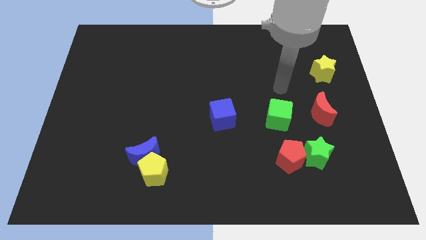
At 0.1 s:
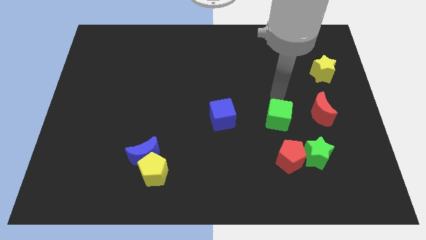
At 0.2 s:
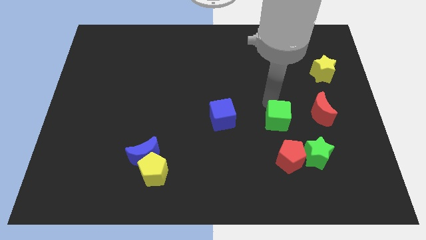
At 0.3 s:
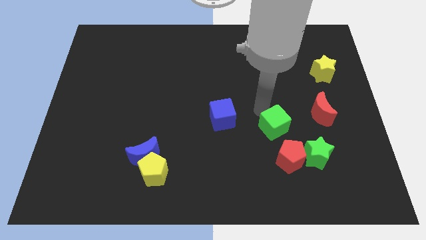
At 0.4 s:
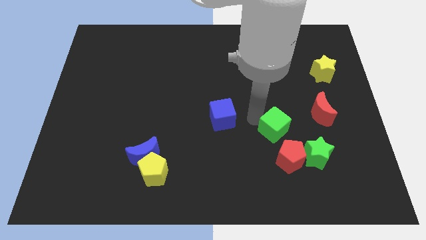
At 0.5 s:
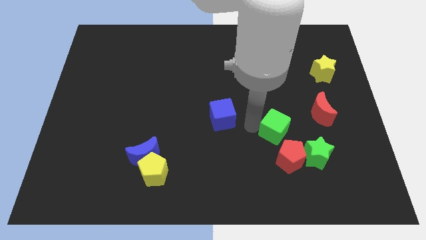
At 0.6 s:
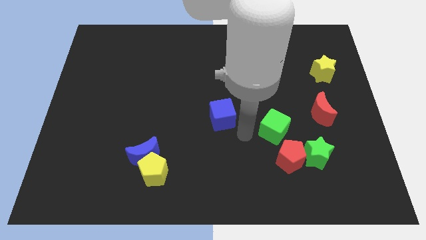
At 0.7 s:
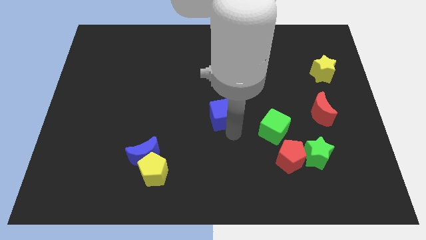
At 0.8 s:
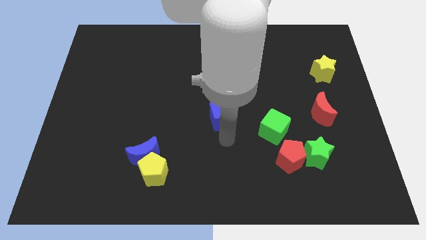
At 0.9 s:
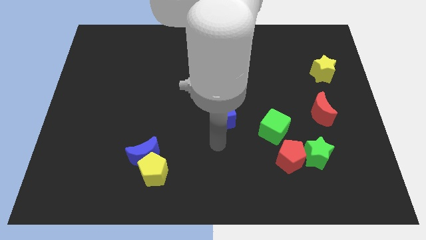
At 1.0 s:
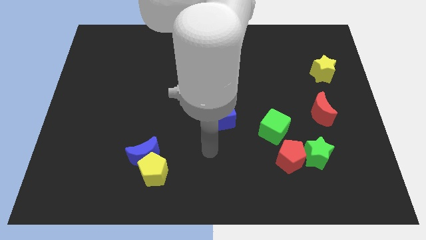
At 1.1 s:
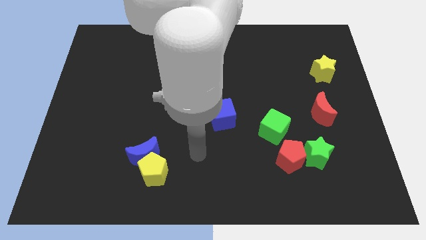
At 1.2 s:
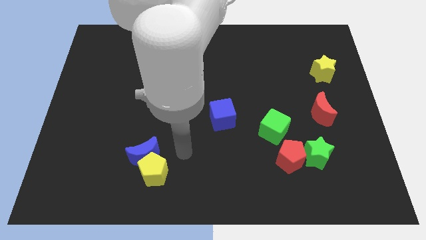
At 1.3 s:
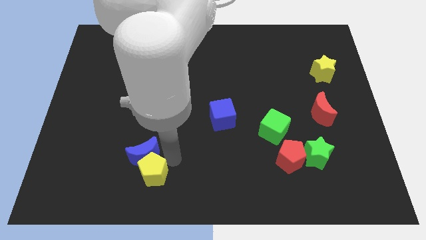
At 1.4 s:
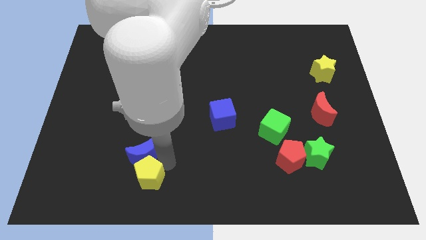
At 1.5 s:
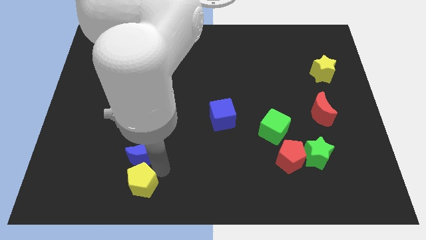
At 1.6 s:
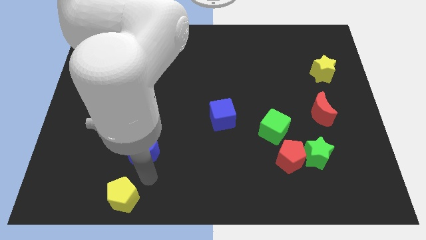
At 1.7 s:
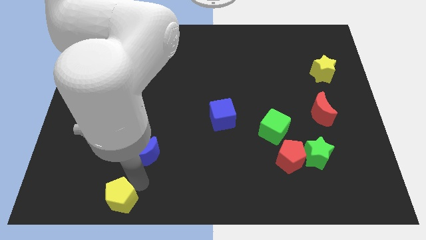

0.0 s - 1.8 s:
separate the blue moon from the yellow pentagon

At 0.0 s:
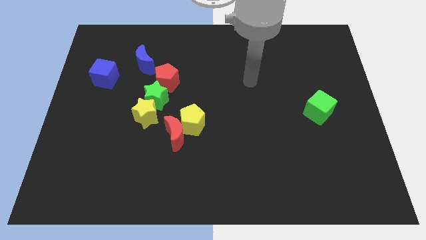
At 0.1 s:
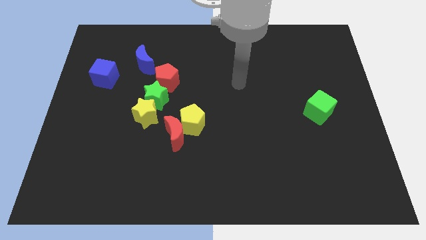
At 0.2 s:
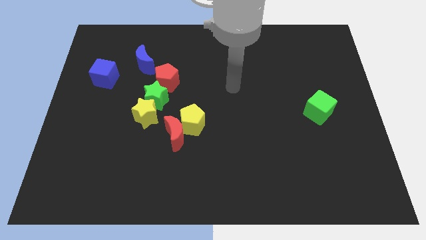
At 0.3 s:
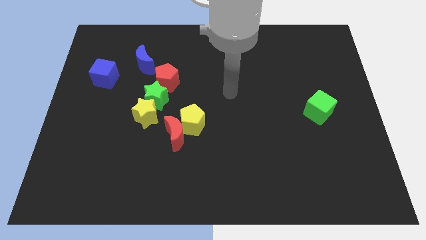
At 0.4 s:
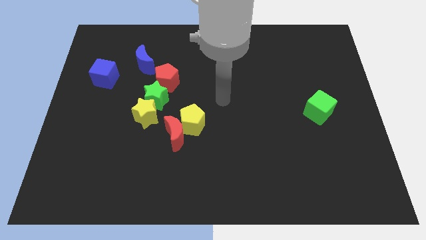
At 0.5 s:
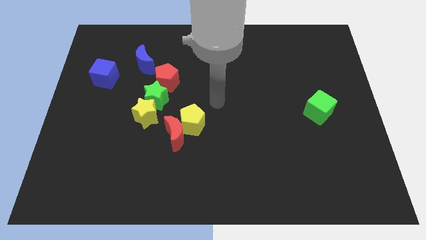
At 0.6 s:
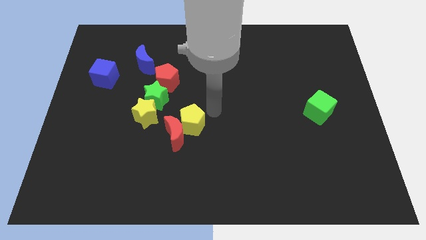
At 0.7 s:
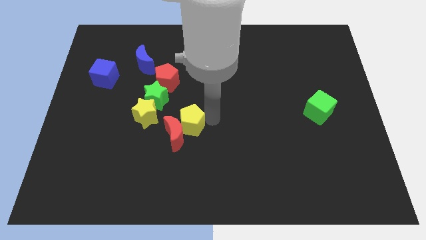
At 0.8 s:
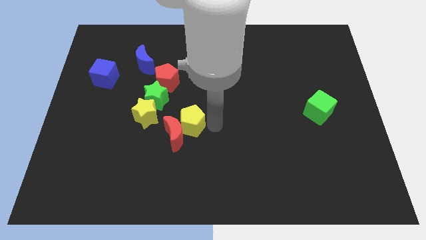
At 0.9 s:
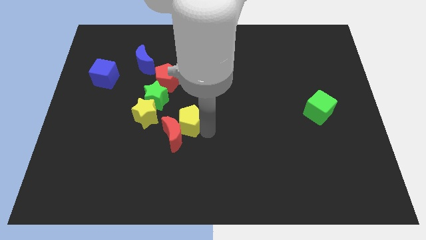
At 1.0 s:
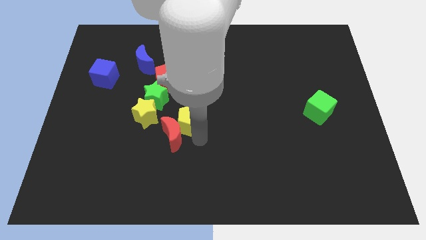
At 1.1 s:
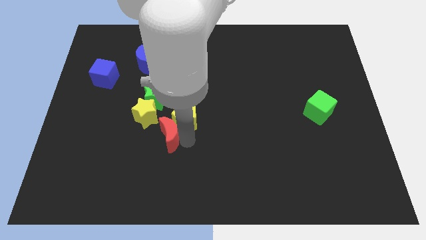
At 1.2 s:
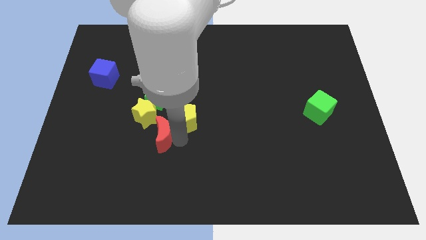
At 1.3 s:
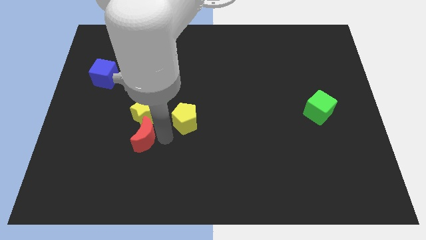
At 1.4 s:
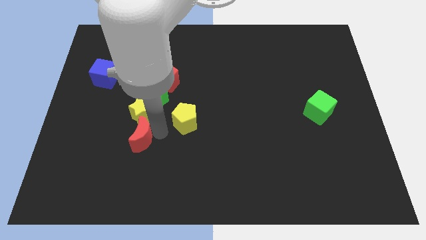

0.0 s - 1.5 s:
separate the yellow pentagon from the red moon

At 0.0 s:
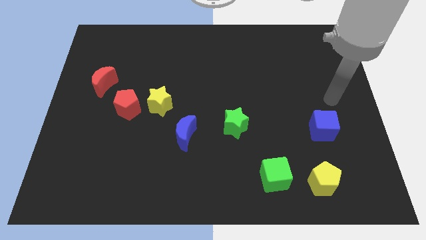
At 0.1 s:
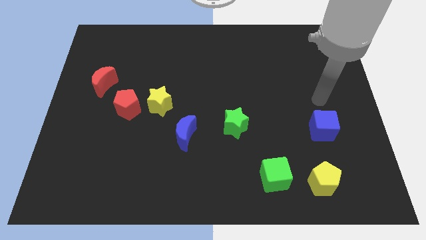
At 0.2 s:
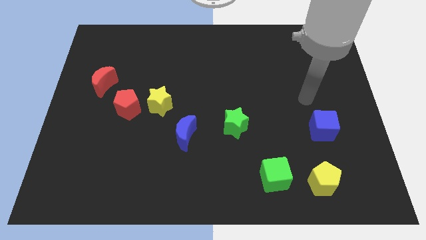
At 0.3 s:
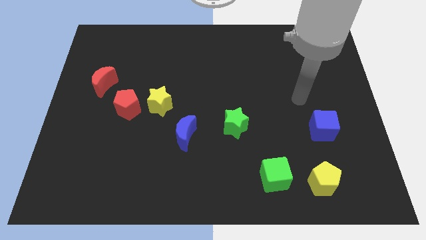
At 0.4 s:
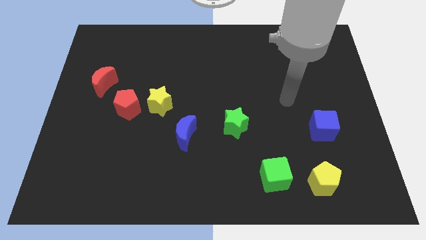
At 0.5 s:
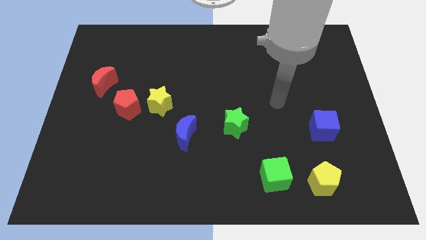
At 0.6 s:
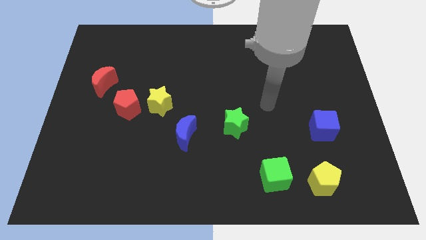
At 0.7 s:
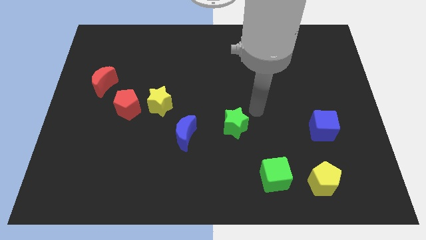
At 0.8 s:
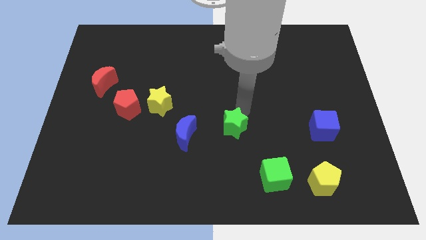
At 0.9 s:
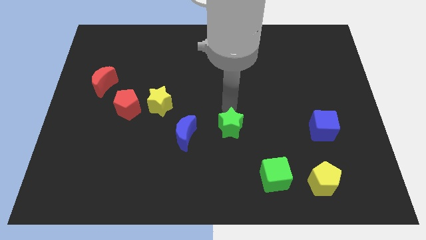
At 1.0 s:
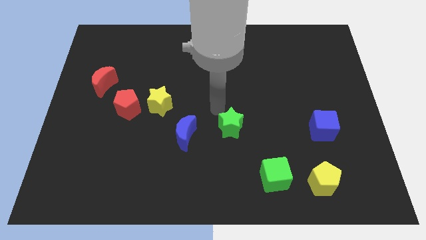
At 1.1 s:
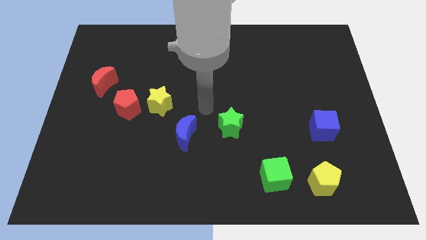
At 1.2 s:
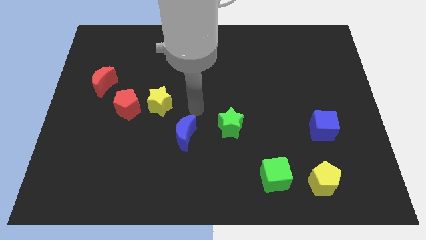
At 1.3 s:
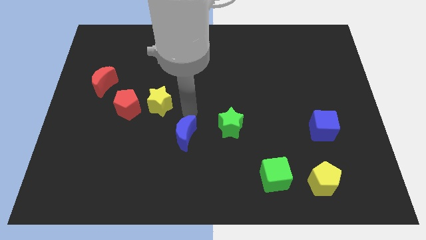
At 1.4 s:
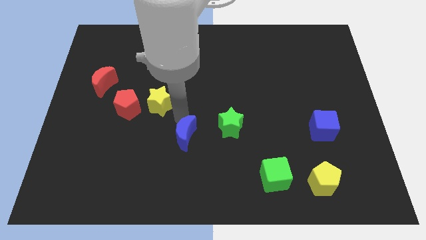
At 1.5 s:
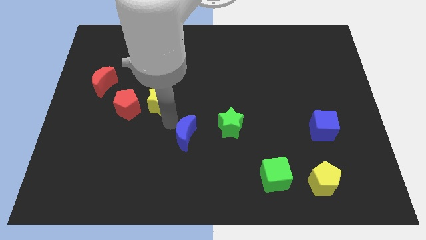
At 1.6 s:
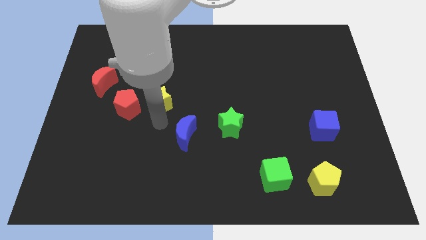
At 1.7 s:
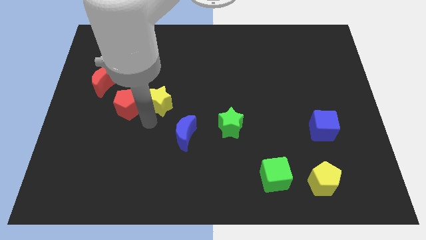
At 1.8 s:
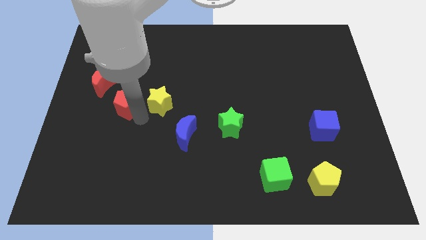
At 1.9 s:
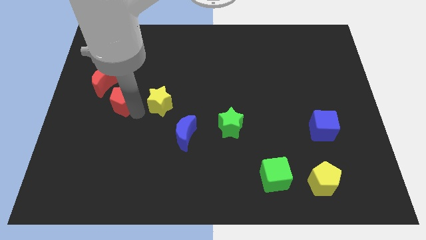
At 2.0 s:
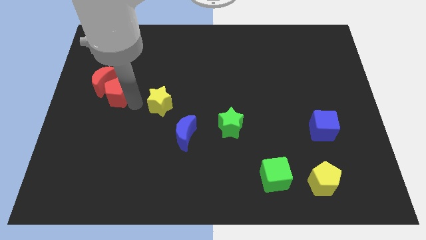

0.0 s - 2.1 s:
separate the yellow star from the red pentagon

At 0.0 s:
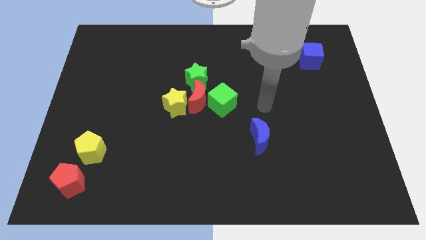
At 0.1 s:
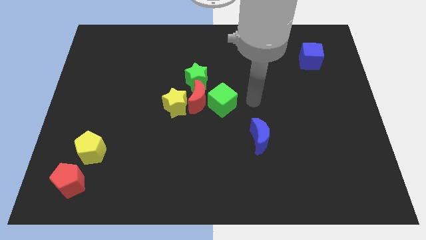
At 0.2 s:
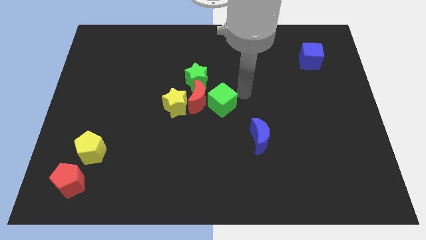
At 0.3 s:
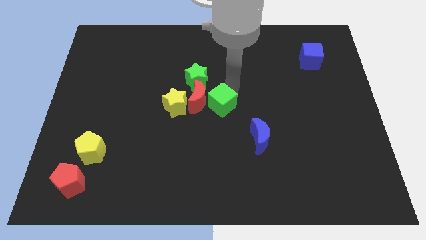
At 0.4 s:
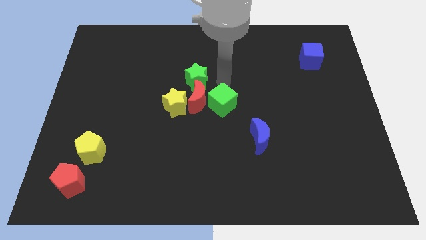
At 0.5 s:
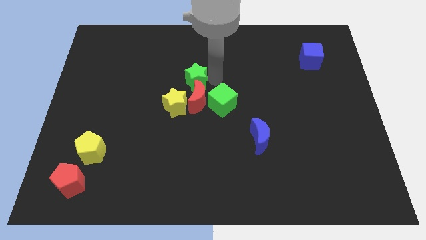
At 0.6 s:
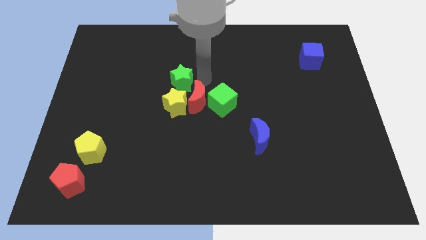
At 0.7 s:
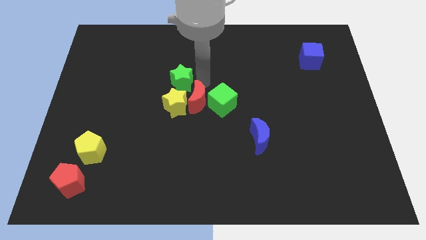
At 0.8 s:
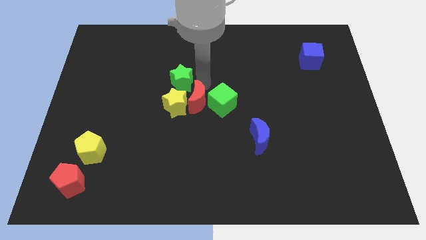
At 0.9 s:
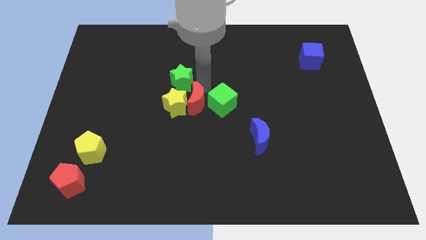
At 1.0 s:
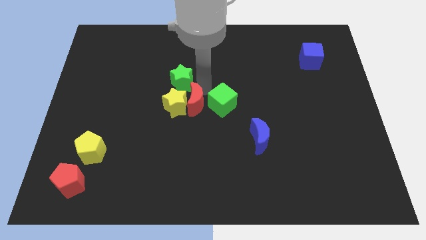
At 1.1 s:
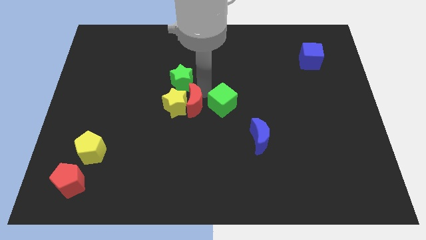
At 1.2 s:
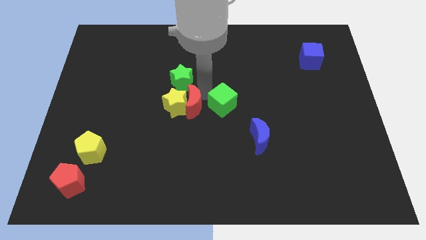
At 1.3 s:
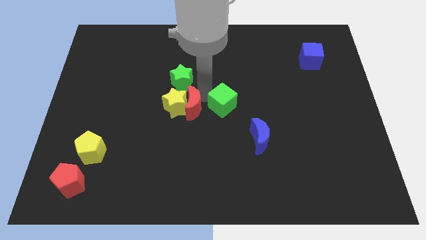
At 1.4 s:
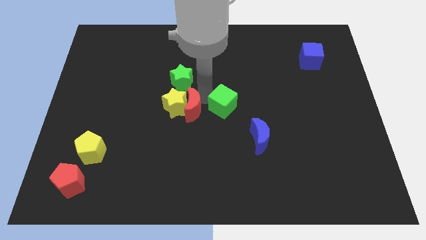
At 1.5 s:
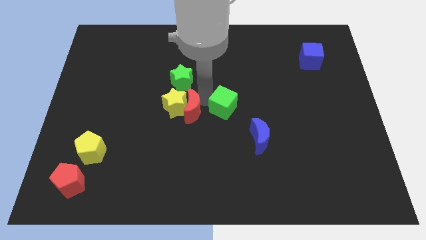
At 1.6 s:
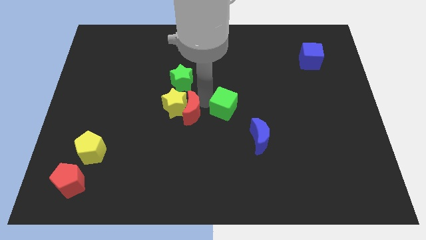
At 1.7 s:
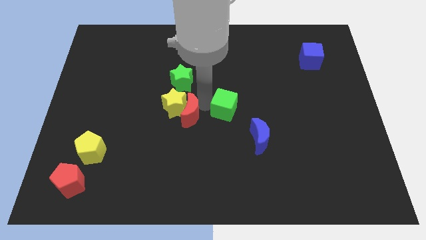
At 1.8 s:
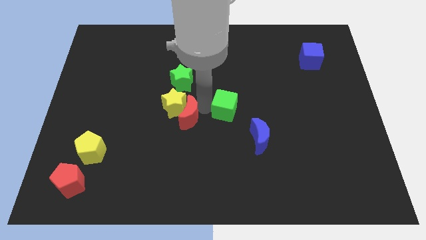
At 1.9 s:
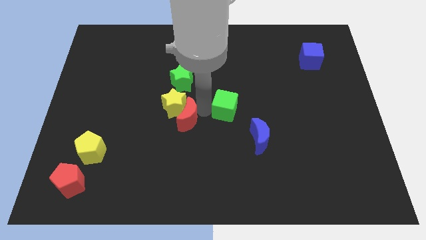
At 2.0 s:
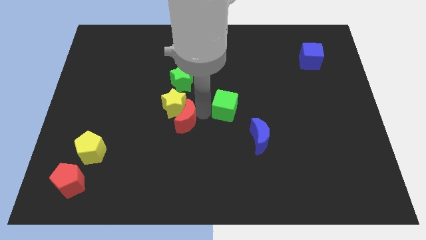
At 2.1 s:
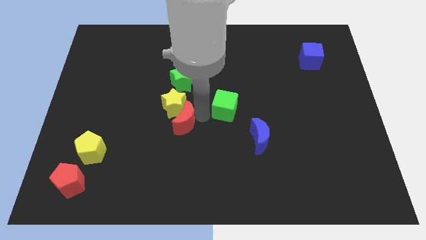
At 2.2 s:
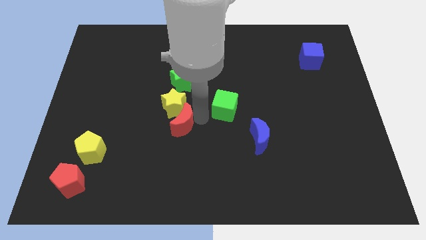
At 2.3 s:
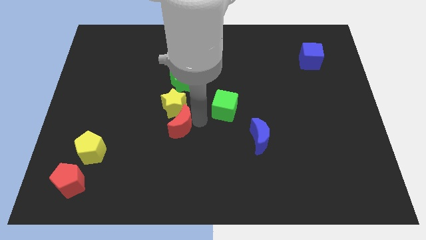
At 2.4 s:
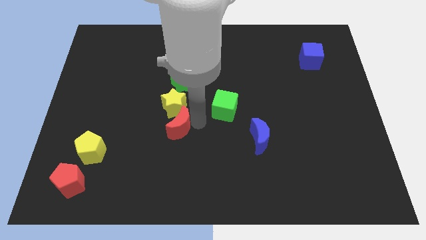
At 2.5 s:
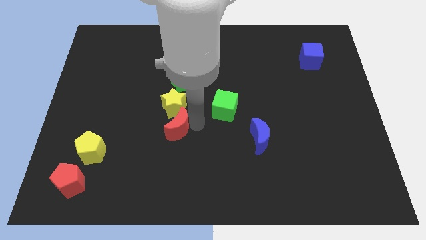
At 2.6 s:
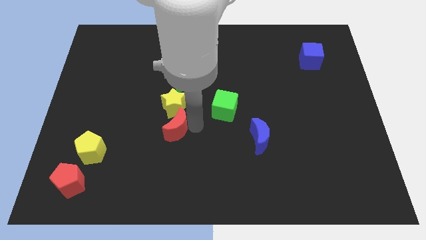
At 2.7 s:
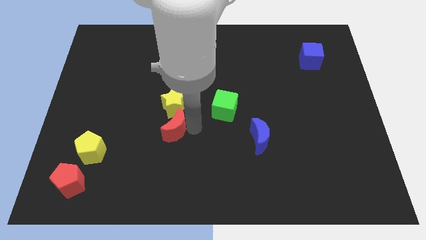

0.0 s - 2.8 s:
pull the red moon apart from the clump

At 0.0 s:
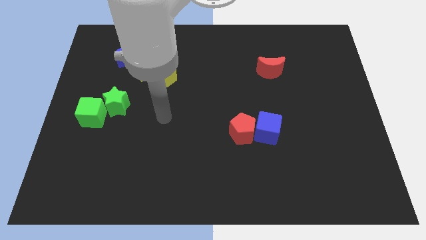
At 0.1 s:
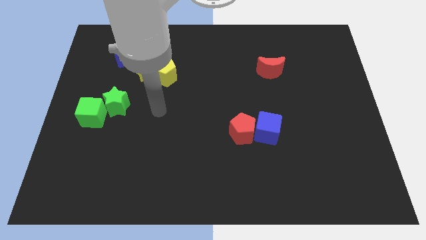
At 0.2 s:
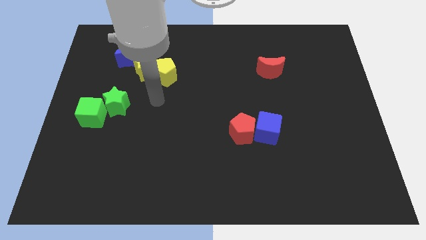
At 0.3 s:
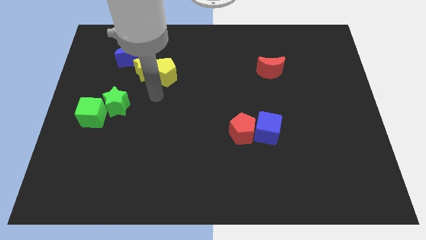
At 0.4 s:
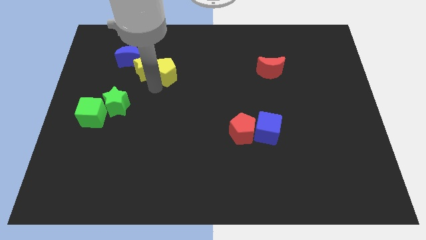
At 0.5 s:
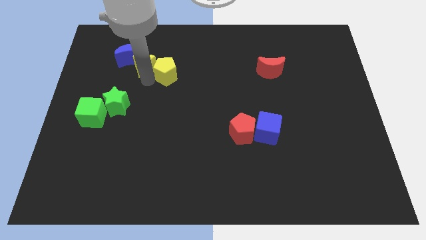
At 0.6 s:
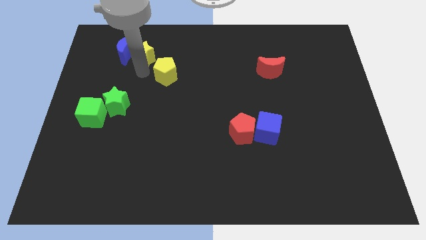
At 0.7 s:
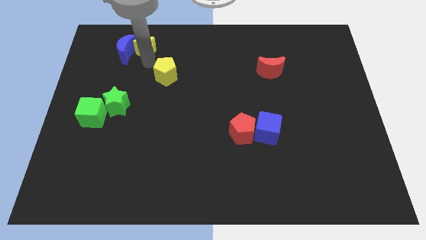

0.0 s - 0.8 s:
move the yellow pentagon away from the yellow star

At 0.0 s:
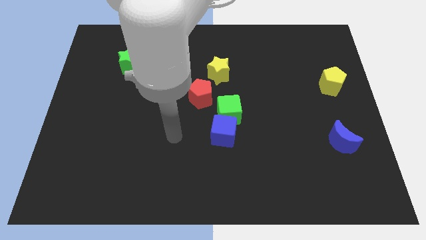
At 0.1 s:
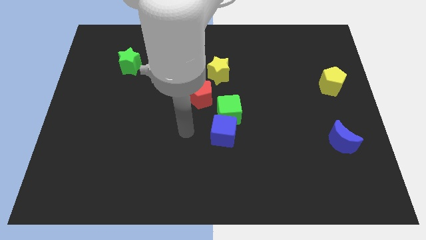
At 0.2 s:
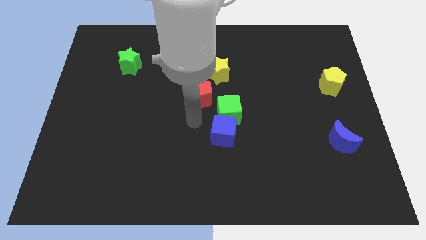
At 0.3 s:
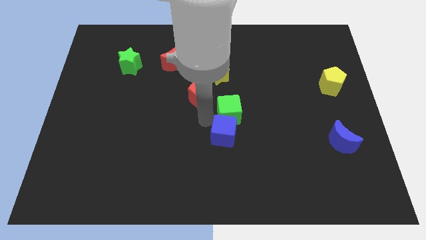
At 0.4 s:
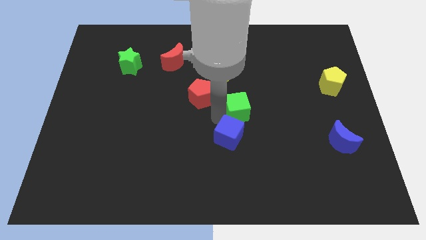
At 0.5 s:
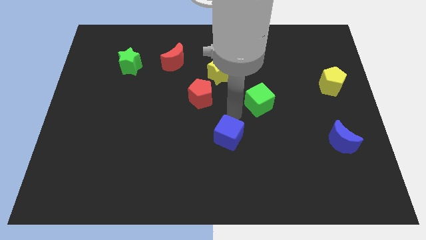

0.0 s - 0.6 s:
pull the blue cube apart from the green cube
